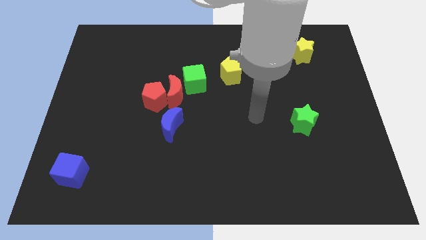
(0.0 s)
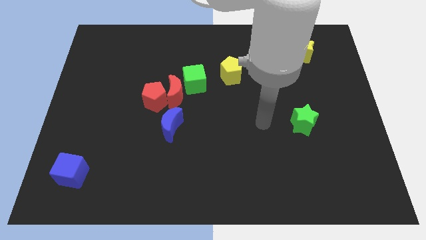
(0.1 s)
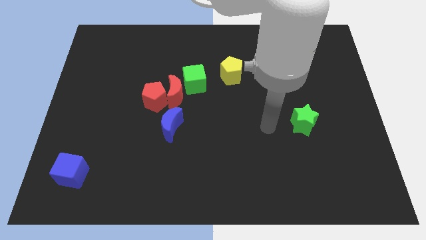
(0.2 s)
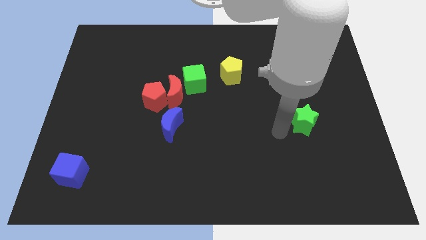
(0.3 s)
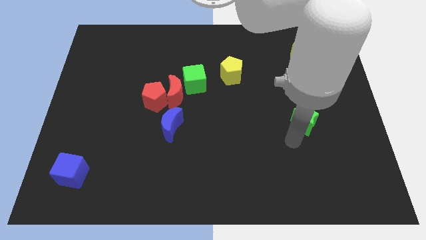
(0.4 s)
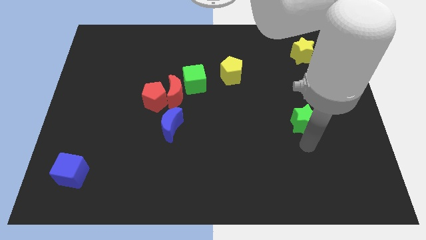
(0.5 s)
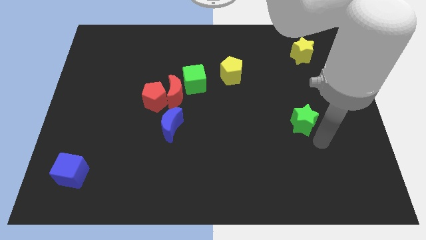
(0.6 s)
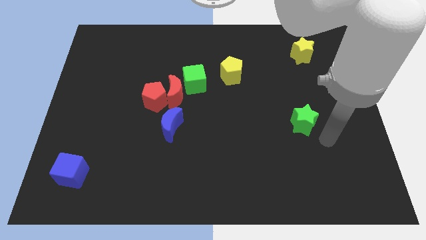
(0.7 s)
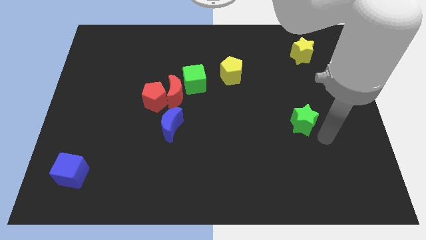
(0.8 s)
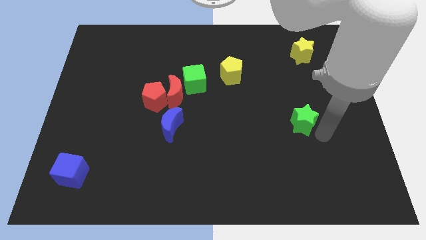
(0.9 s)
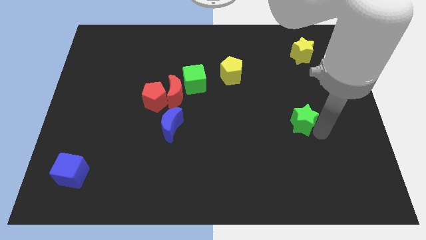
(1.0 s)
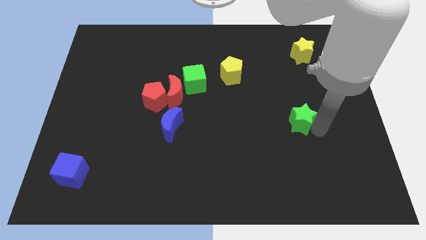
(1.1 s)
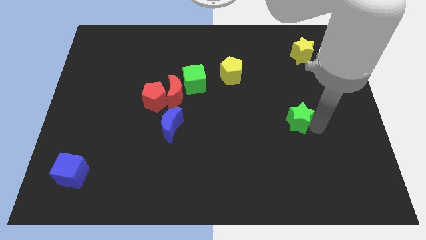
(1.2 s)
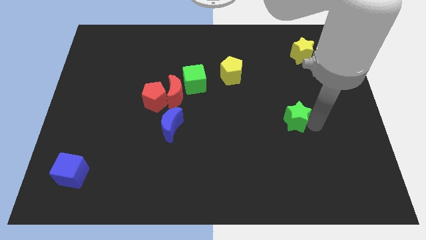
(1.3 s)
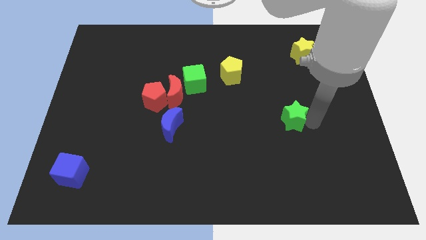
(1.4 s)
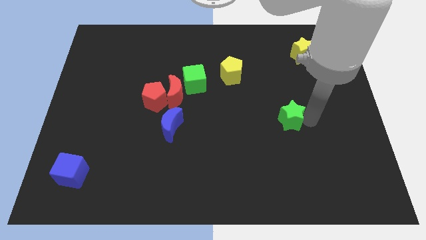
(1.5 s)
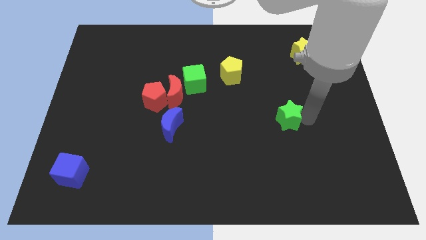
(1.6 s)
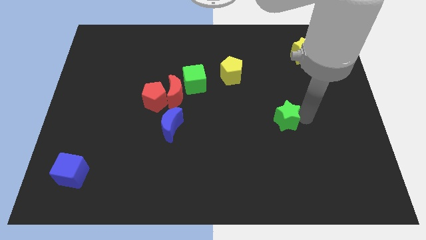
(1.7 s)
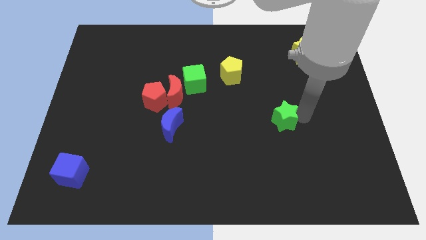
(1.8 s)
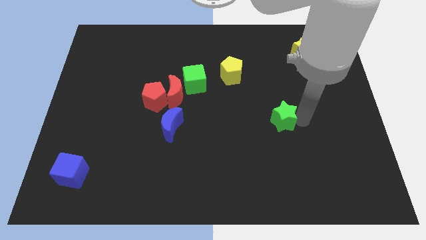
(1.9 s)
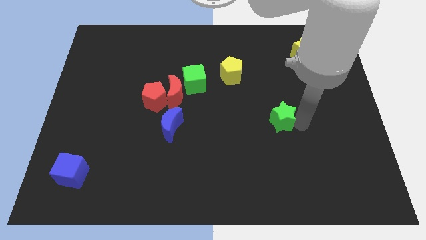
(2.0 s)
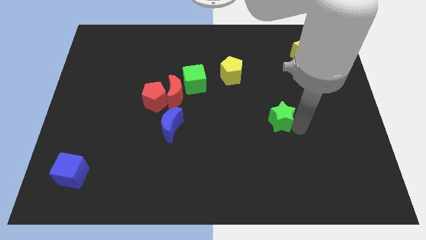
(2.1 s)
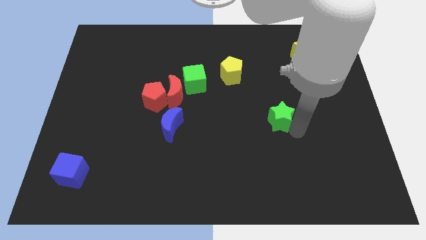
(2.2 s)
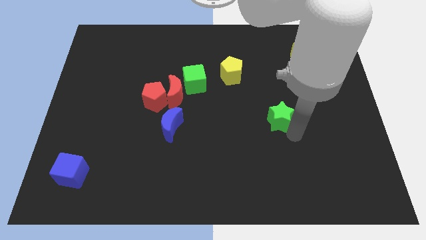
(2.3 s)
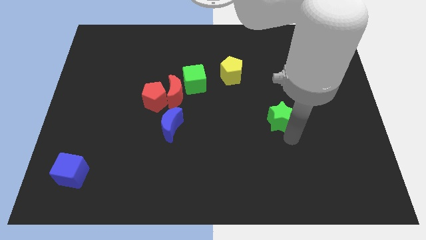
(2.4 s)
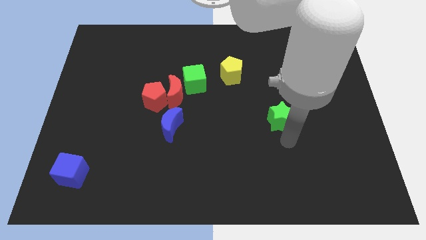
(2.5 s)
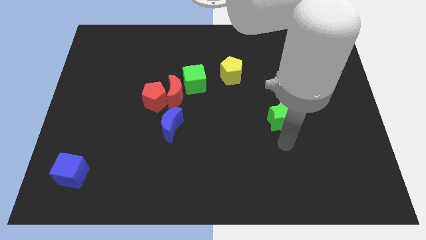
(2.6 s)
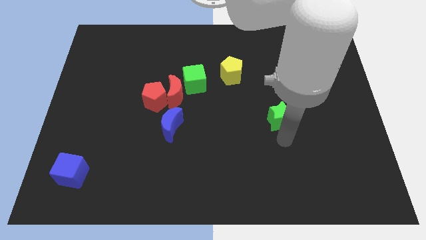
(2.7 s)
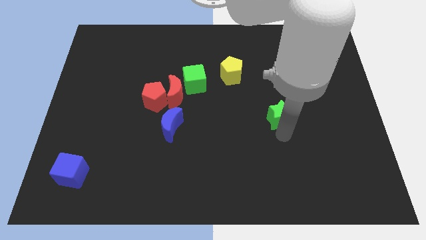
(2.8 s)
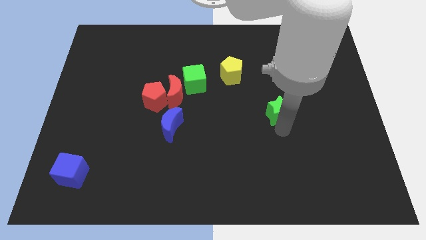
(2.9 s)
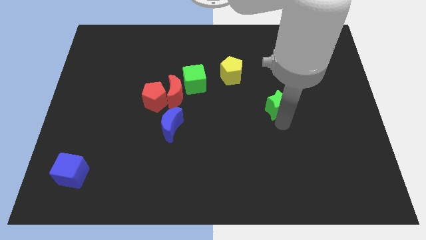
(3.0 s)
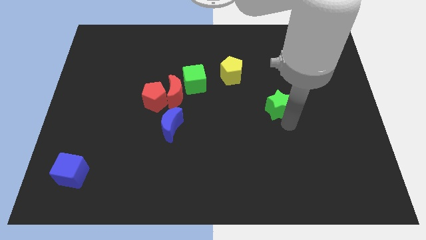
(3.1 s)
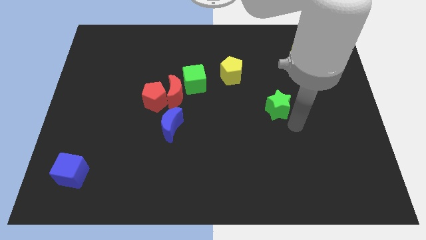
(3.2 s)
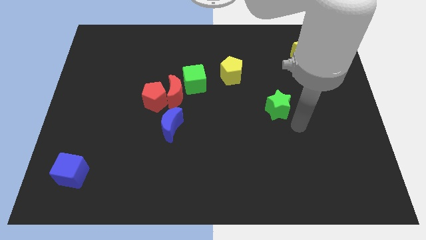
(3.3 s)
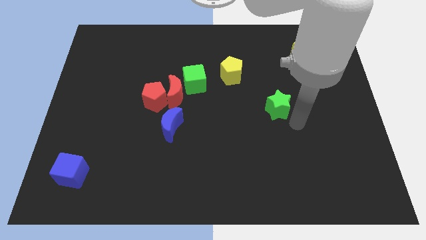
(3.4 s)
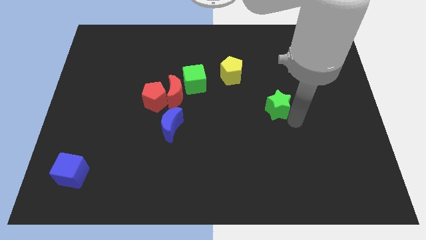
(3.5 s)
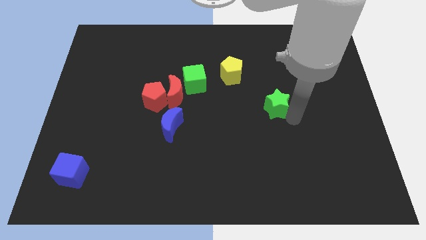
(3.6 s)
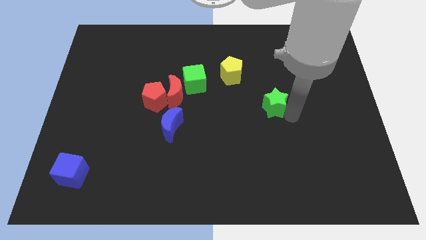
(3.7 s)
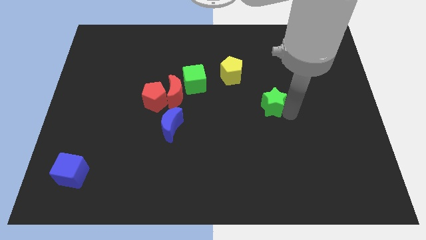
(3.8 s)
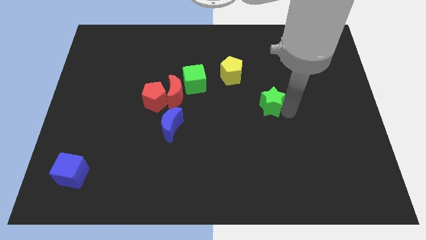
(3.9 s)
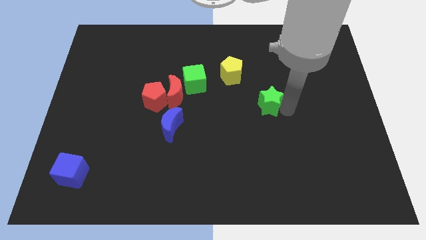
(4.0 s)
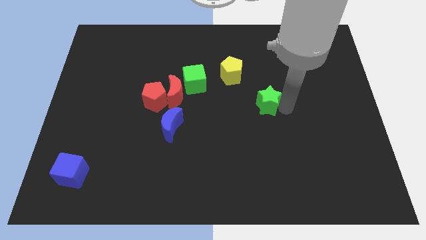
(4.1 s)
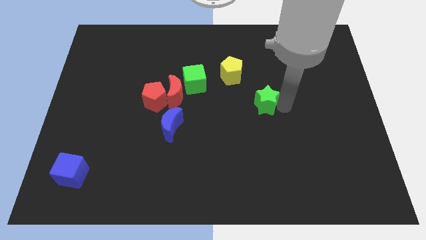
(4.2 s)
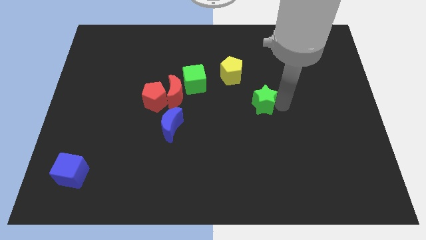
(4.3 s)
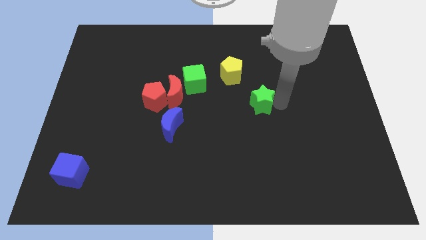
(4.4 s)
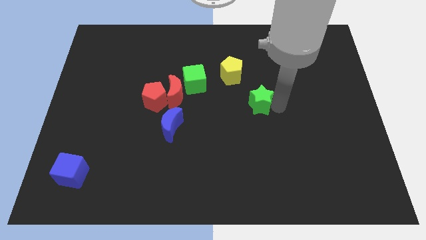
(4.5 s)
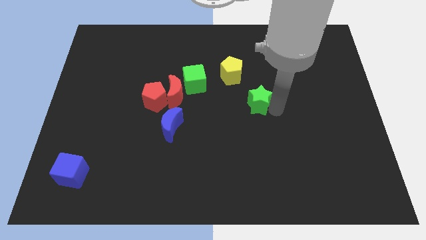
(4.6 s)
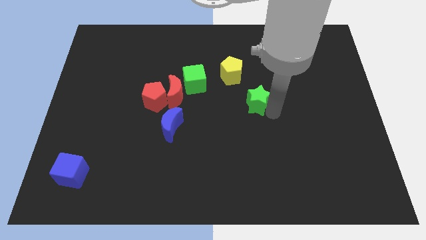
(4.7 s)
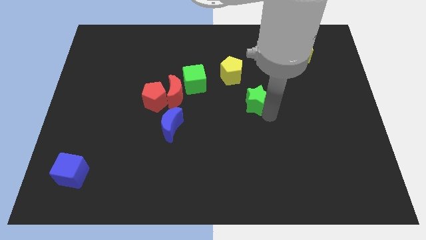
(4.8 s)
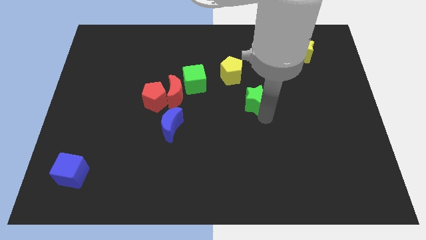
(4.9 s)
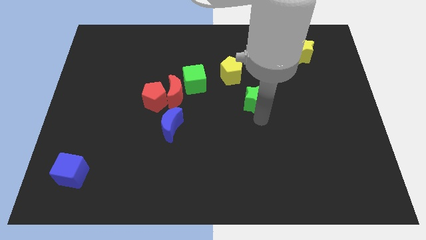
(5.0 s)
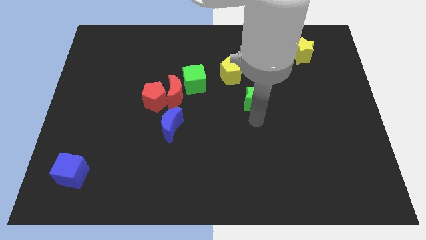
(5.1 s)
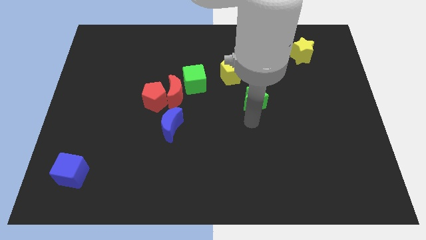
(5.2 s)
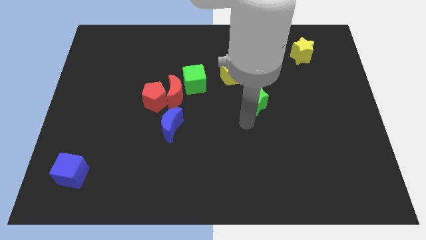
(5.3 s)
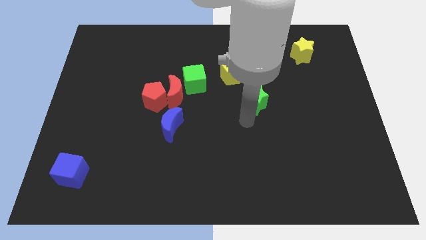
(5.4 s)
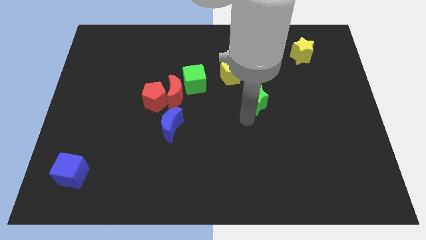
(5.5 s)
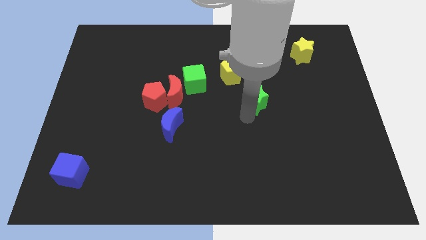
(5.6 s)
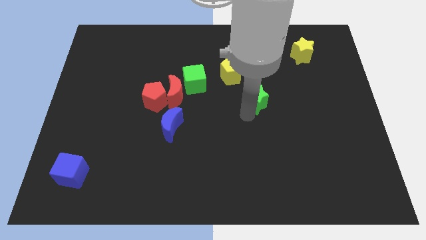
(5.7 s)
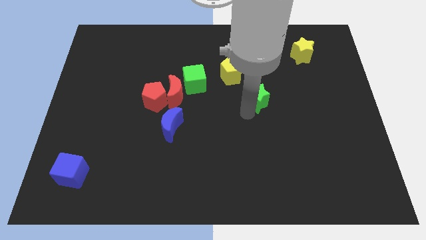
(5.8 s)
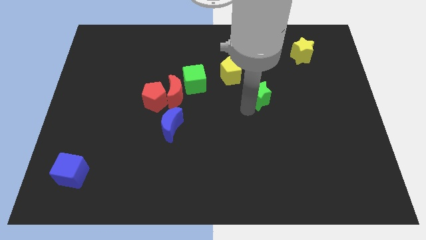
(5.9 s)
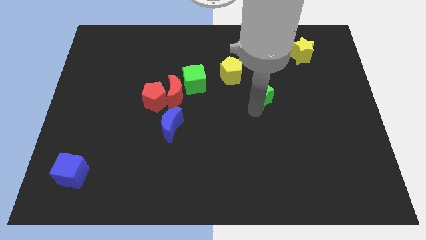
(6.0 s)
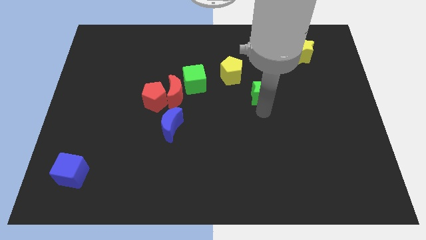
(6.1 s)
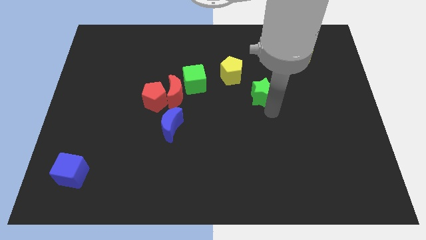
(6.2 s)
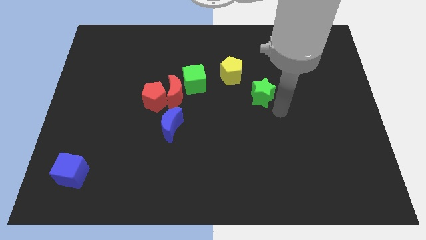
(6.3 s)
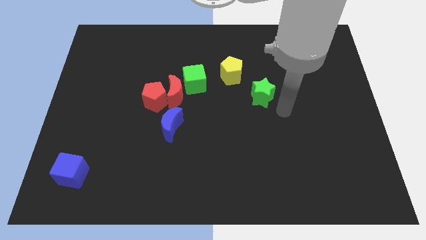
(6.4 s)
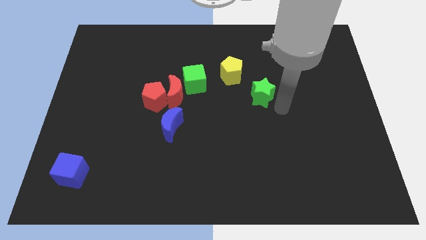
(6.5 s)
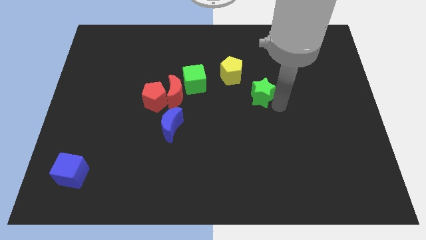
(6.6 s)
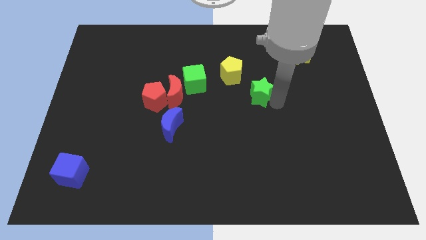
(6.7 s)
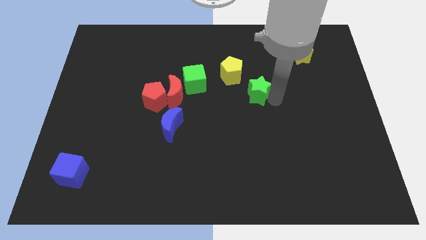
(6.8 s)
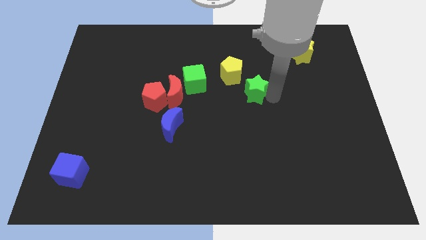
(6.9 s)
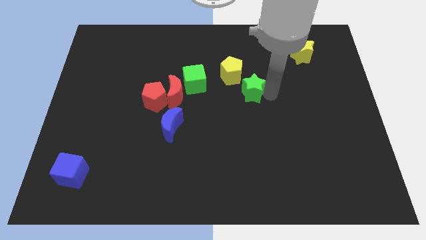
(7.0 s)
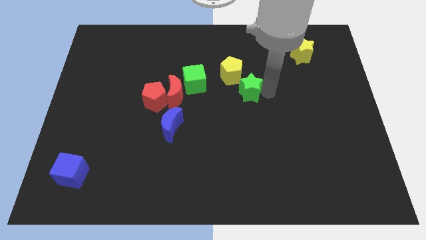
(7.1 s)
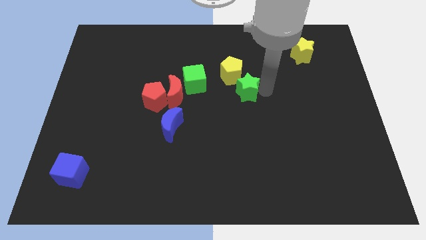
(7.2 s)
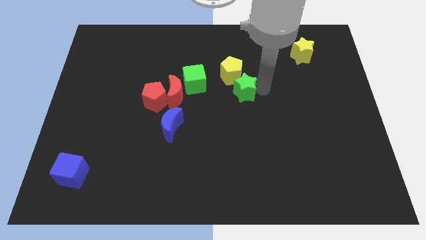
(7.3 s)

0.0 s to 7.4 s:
slide the green star to the yellow pentagon
